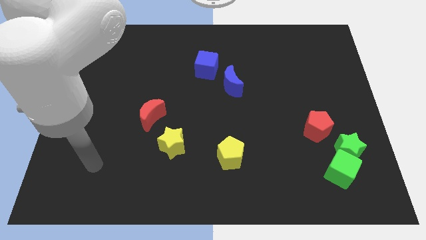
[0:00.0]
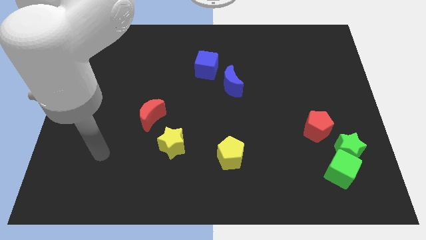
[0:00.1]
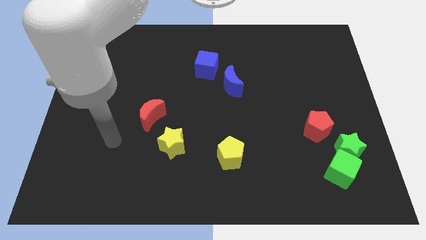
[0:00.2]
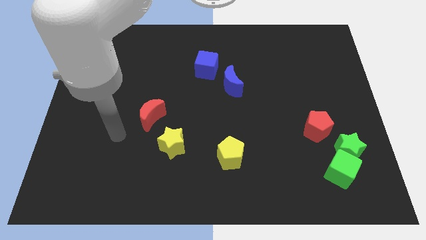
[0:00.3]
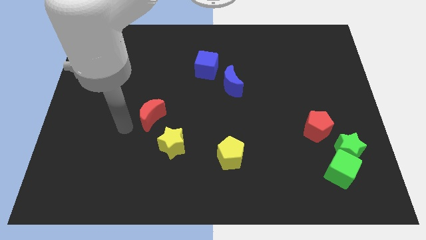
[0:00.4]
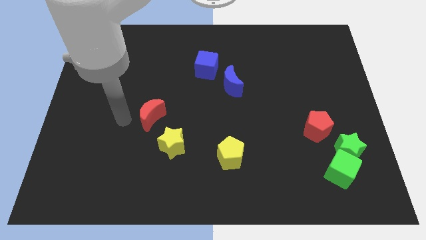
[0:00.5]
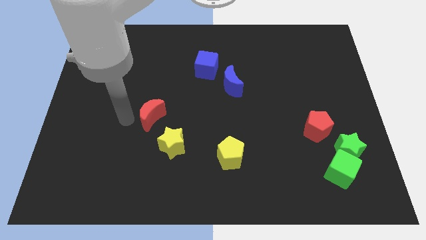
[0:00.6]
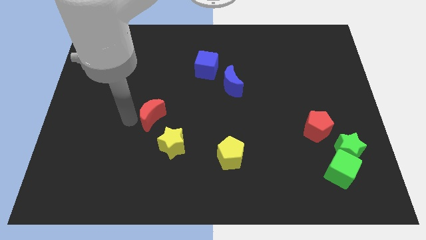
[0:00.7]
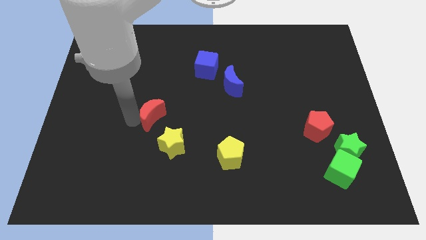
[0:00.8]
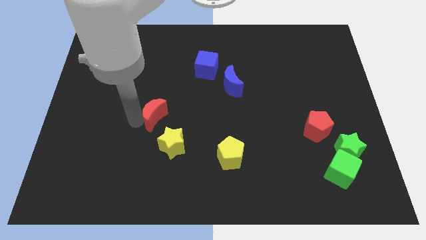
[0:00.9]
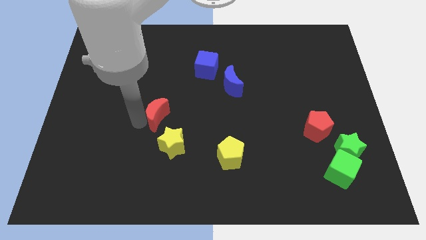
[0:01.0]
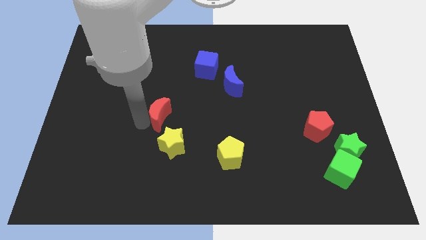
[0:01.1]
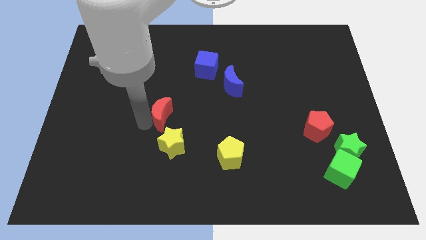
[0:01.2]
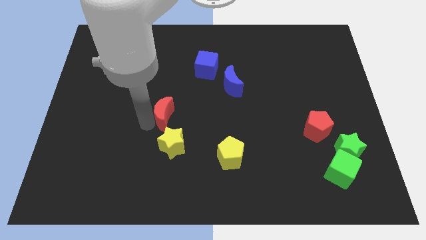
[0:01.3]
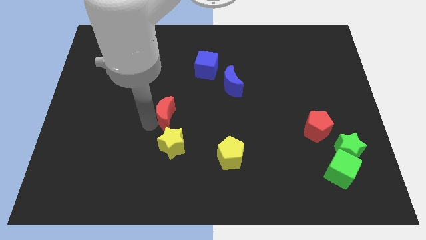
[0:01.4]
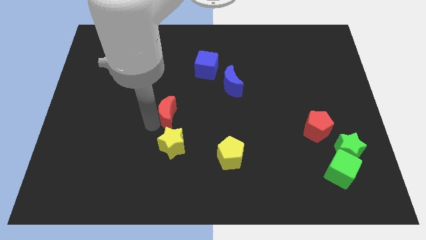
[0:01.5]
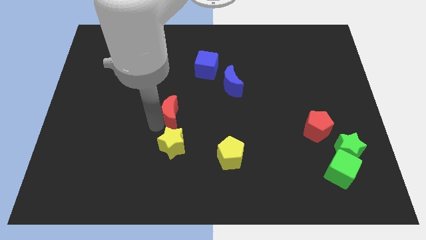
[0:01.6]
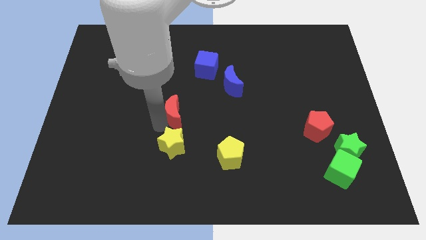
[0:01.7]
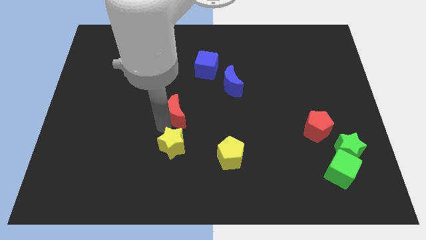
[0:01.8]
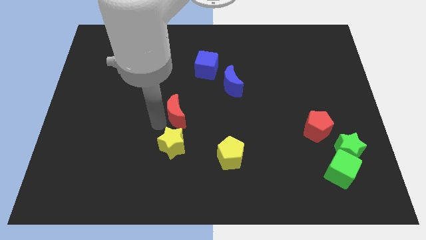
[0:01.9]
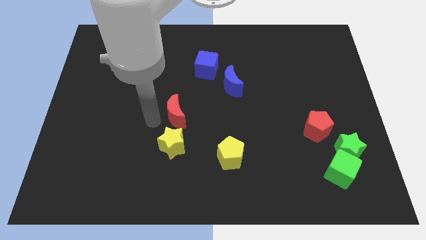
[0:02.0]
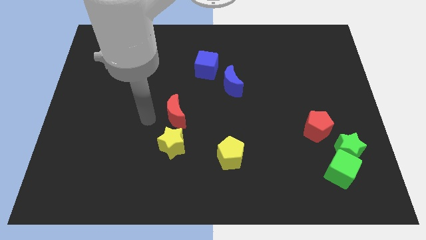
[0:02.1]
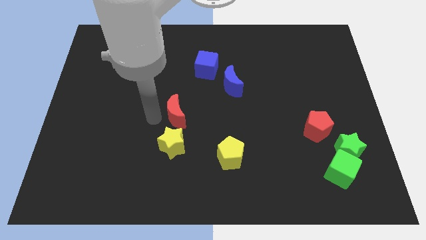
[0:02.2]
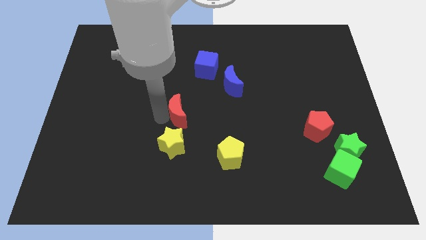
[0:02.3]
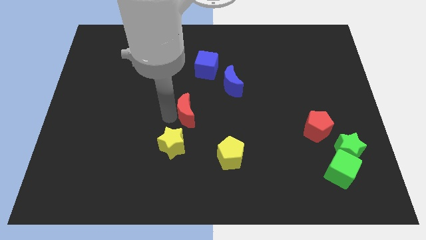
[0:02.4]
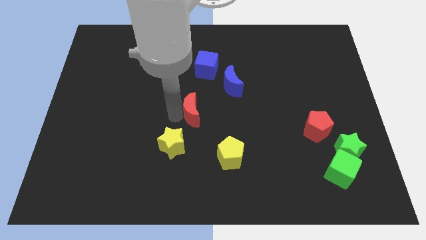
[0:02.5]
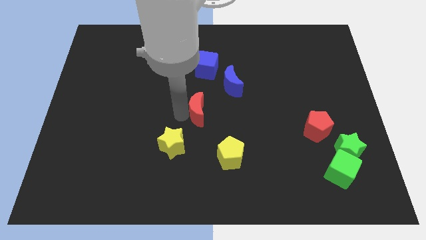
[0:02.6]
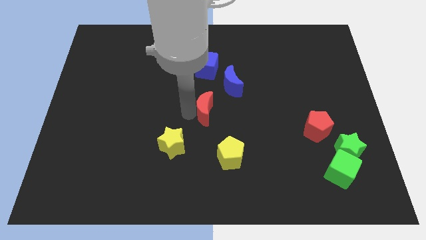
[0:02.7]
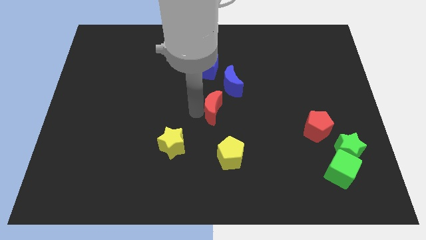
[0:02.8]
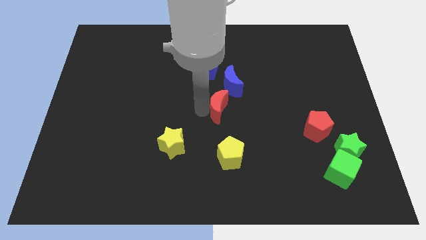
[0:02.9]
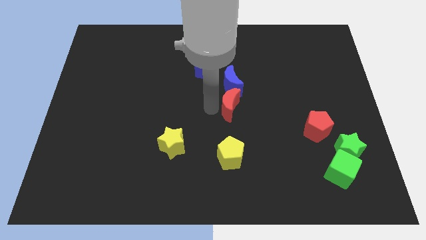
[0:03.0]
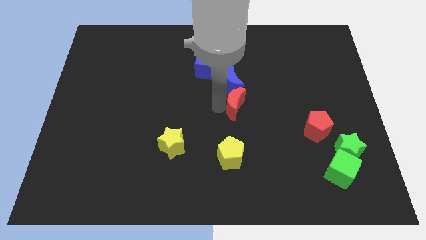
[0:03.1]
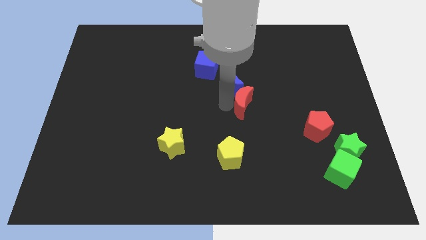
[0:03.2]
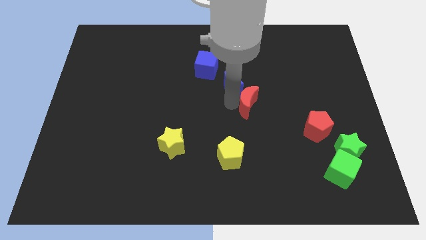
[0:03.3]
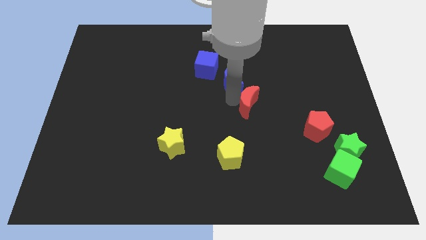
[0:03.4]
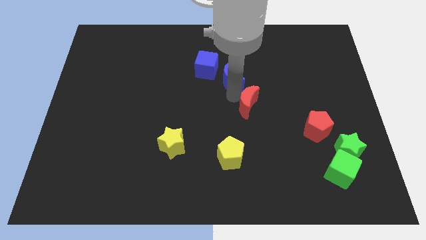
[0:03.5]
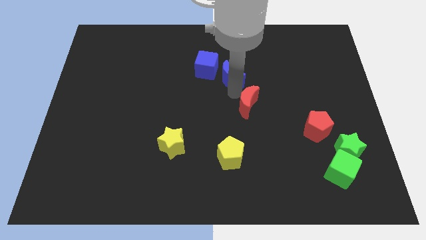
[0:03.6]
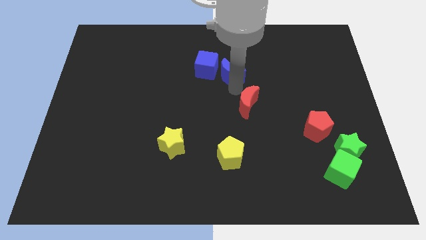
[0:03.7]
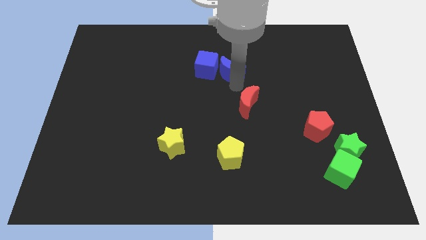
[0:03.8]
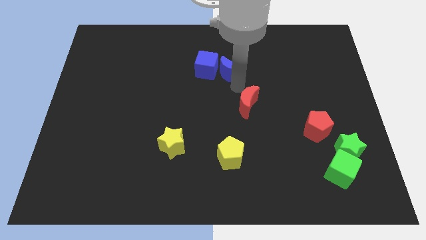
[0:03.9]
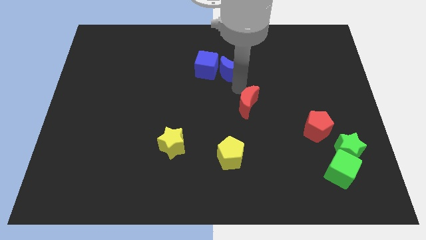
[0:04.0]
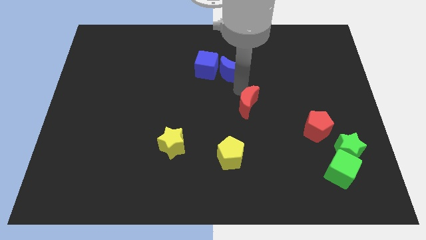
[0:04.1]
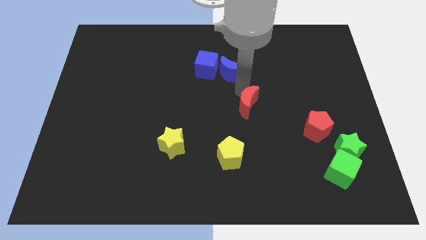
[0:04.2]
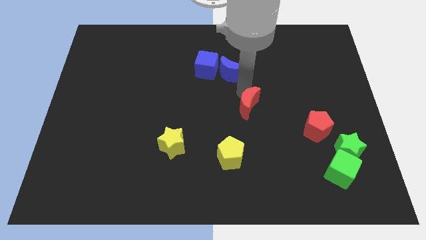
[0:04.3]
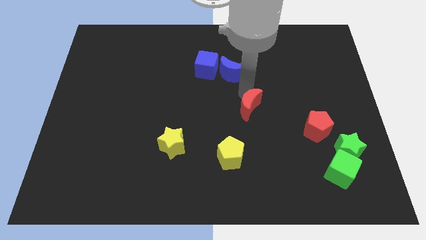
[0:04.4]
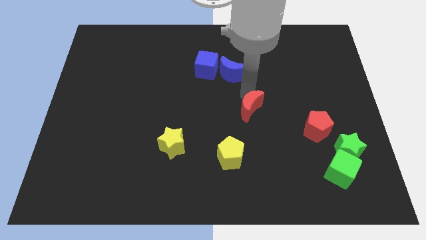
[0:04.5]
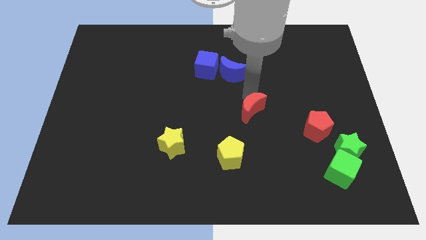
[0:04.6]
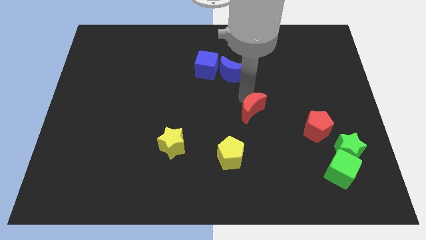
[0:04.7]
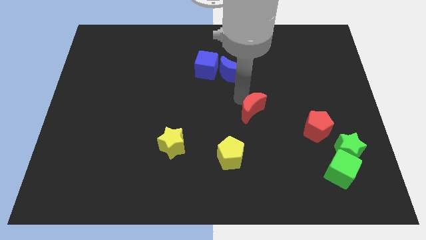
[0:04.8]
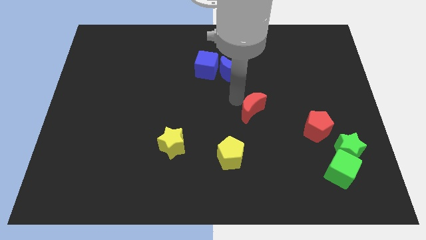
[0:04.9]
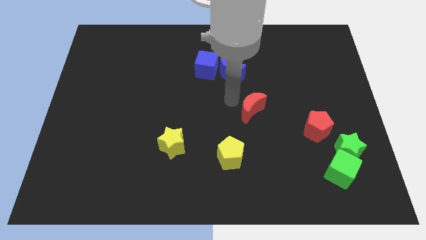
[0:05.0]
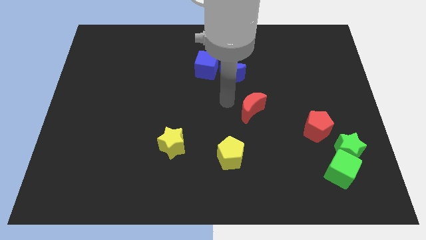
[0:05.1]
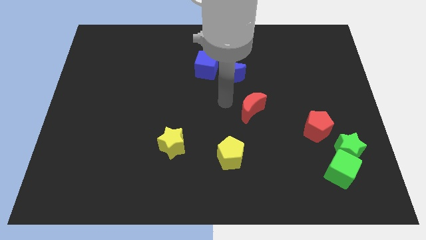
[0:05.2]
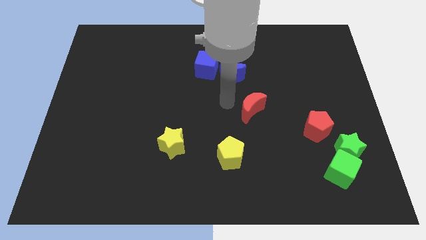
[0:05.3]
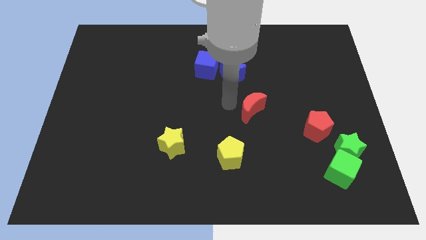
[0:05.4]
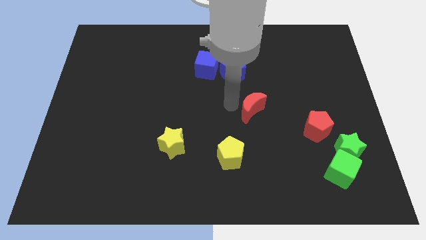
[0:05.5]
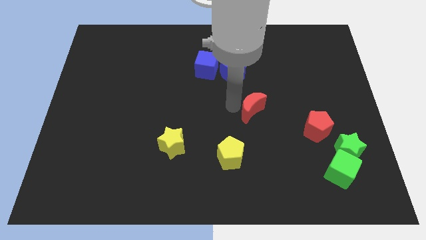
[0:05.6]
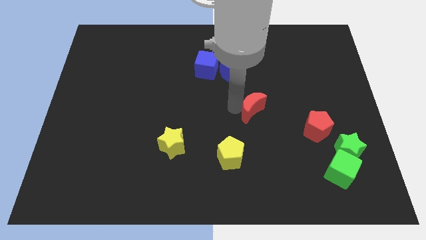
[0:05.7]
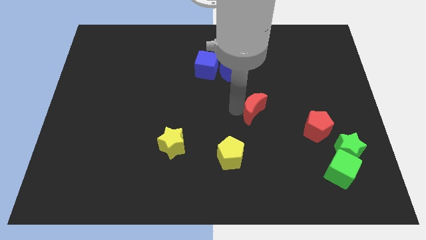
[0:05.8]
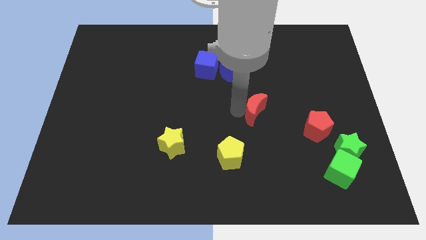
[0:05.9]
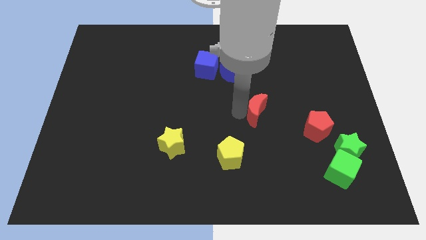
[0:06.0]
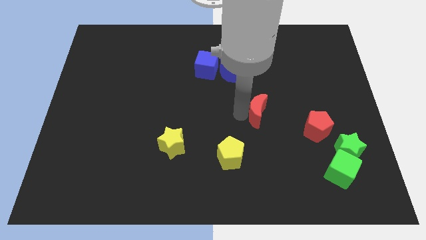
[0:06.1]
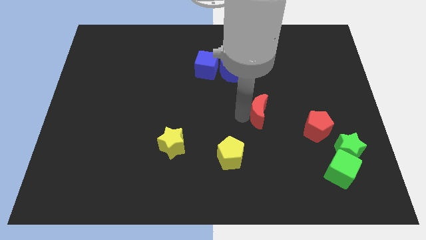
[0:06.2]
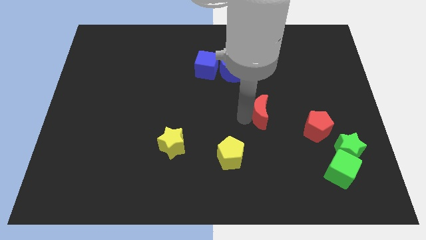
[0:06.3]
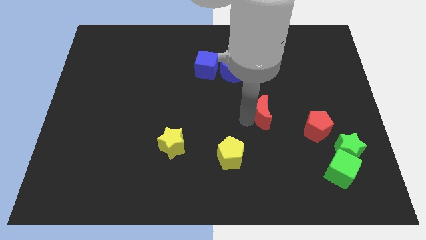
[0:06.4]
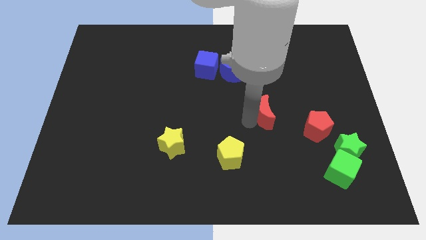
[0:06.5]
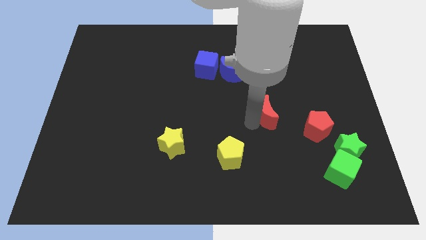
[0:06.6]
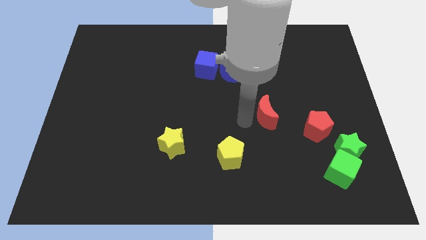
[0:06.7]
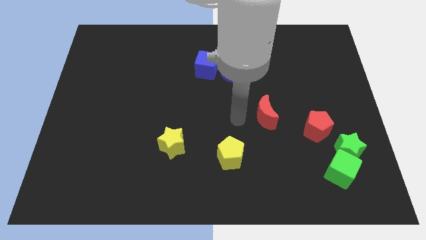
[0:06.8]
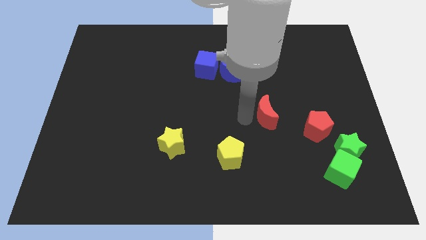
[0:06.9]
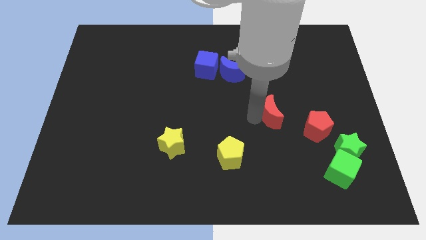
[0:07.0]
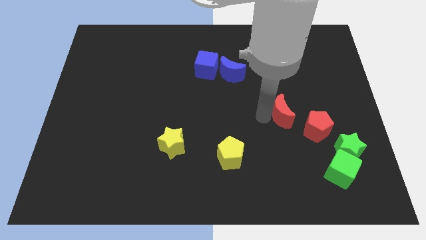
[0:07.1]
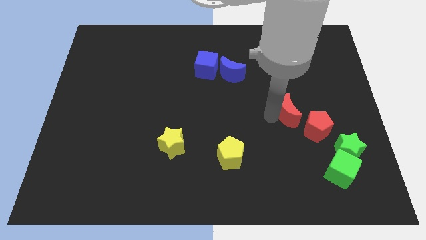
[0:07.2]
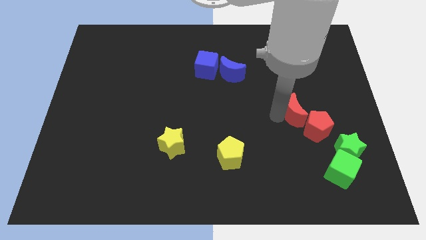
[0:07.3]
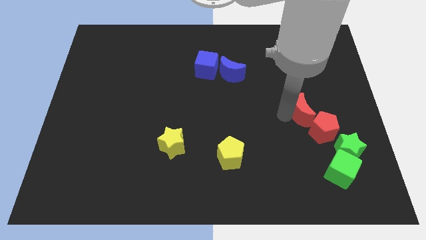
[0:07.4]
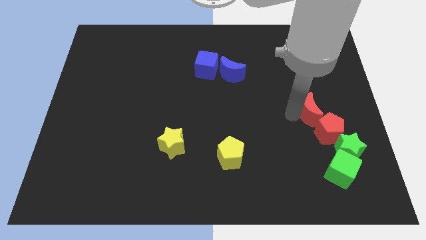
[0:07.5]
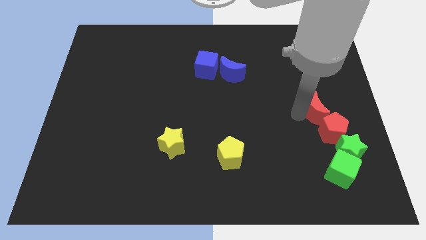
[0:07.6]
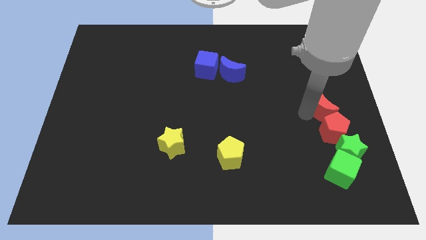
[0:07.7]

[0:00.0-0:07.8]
slide the red moon to the center right
